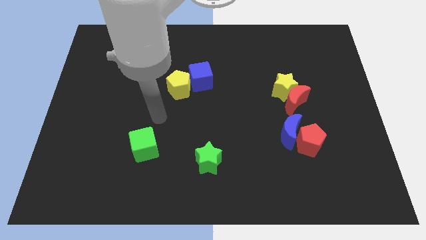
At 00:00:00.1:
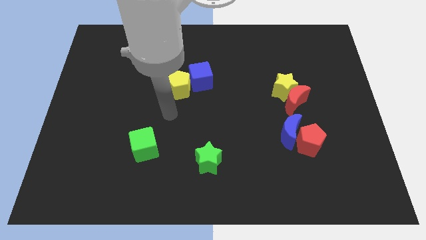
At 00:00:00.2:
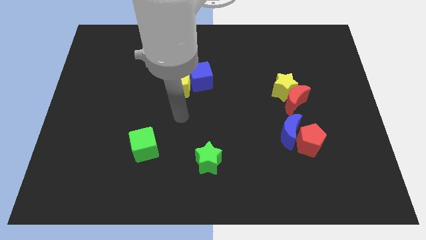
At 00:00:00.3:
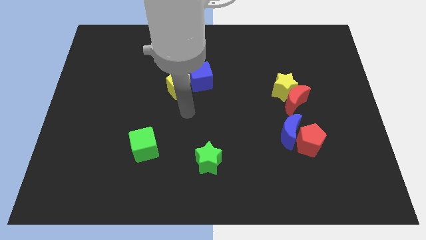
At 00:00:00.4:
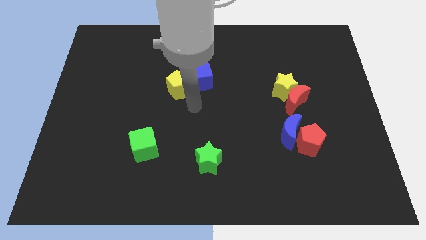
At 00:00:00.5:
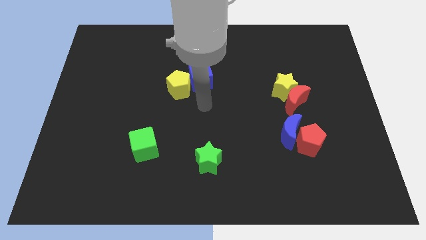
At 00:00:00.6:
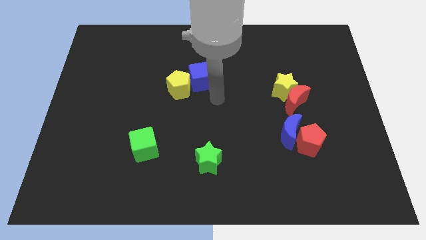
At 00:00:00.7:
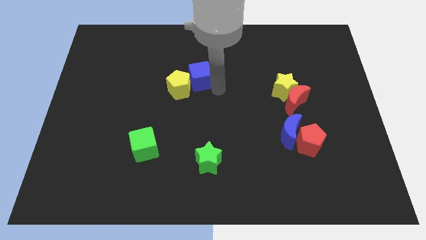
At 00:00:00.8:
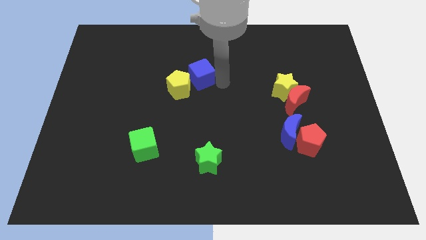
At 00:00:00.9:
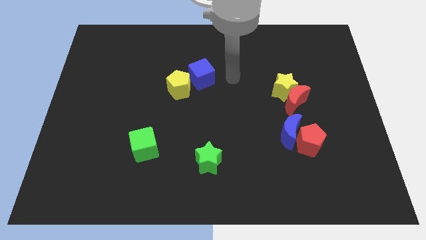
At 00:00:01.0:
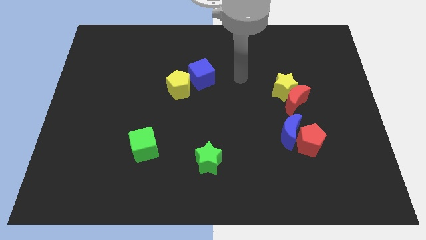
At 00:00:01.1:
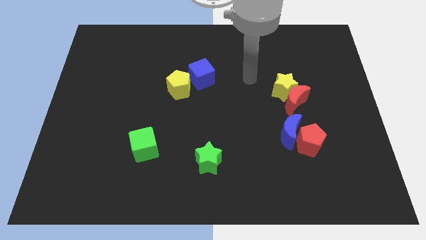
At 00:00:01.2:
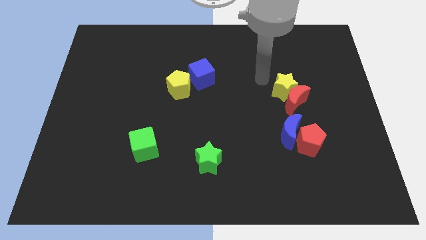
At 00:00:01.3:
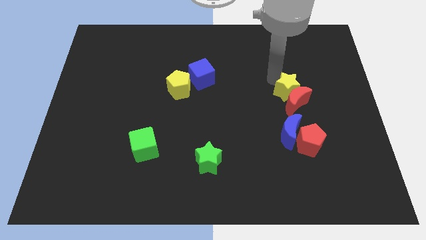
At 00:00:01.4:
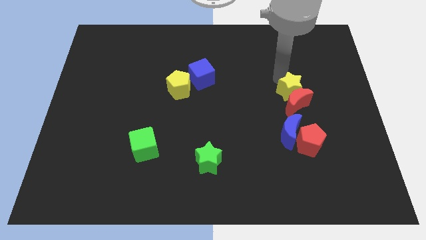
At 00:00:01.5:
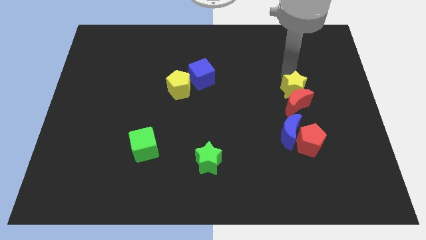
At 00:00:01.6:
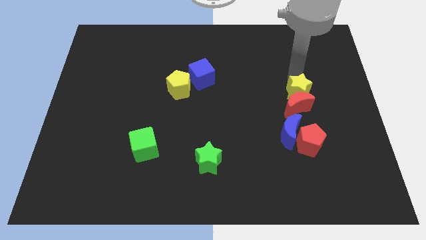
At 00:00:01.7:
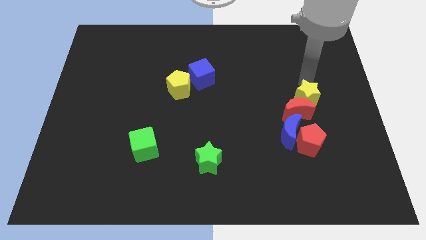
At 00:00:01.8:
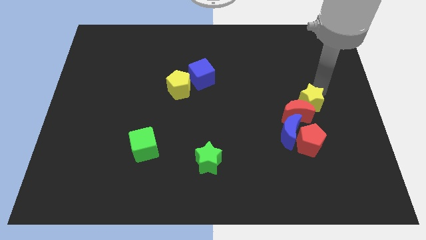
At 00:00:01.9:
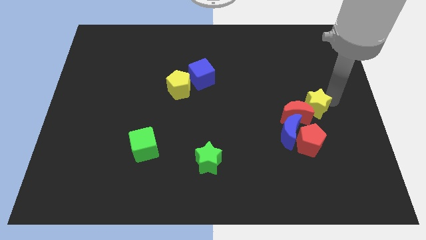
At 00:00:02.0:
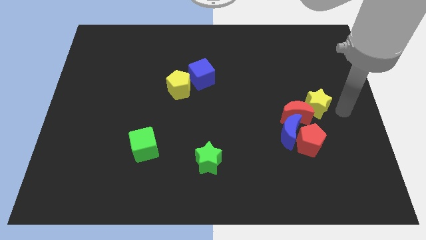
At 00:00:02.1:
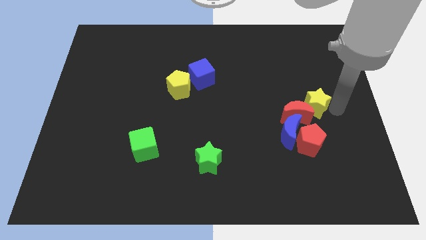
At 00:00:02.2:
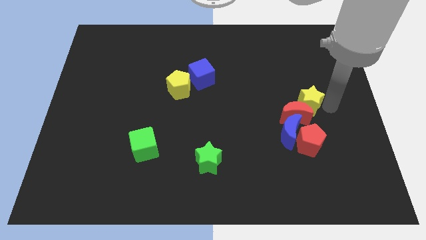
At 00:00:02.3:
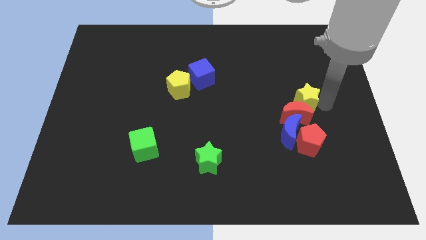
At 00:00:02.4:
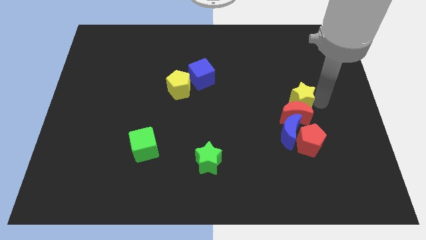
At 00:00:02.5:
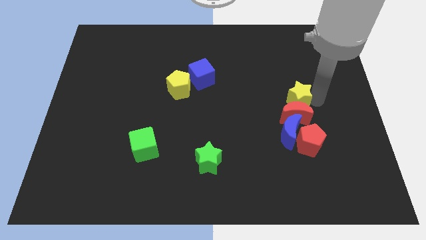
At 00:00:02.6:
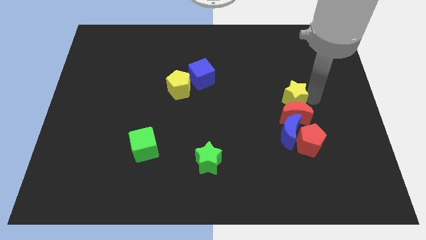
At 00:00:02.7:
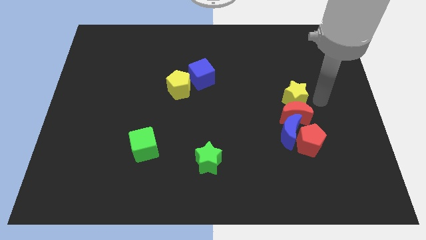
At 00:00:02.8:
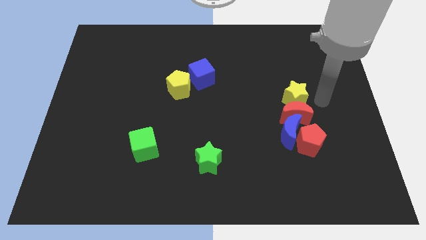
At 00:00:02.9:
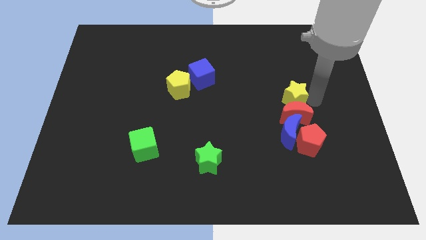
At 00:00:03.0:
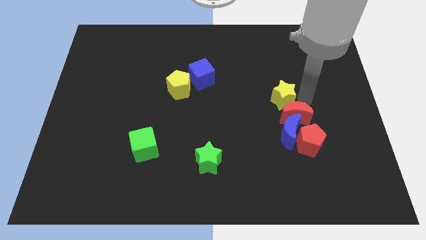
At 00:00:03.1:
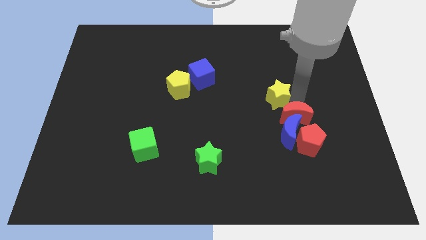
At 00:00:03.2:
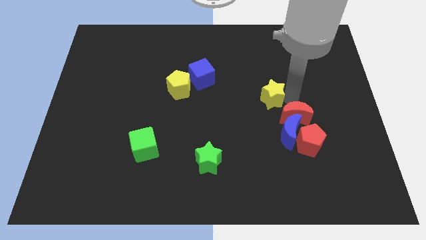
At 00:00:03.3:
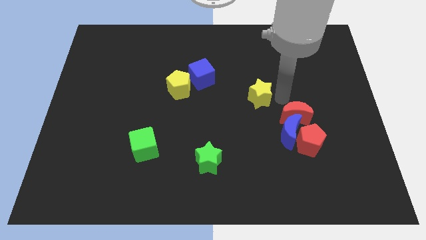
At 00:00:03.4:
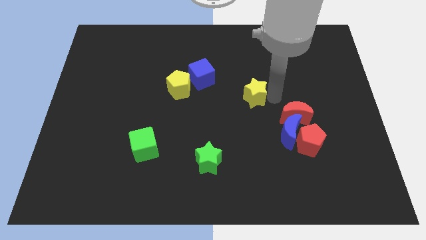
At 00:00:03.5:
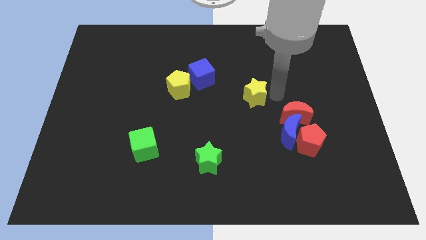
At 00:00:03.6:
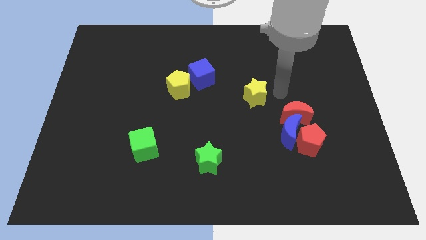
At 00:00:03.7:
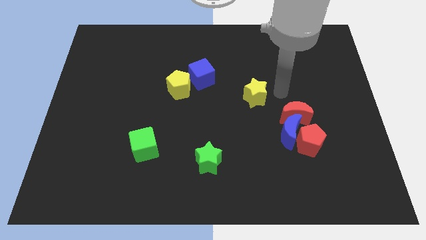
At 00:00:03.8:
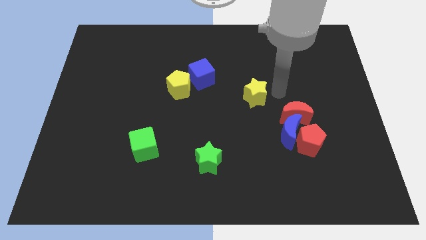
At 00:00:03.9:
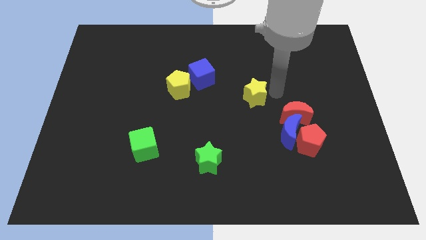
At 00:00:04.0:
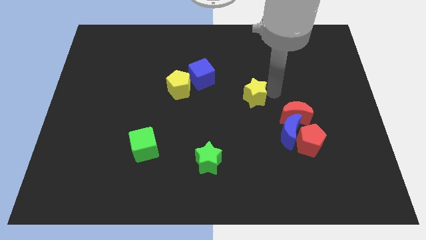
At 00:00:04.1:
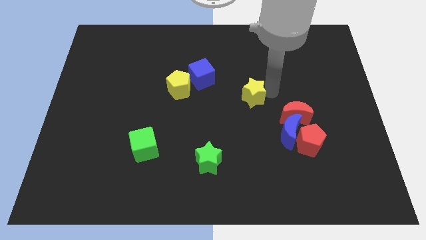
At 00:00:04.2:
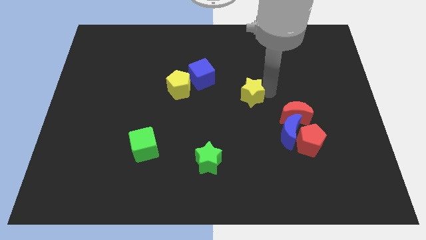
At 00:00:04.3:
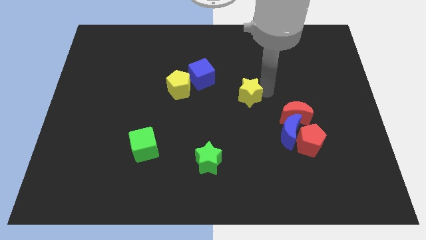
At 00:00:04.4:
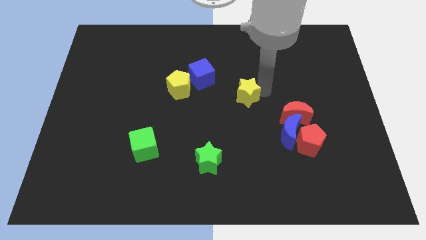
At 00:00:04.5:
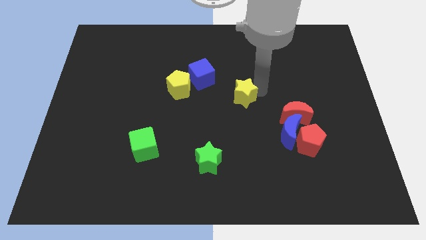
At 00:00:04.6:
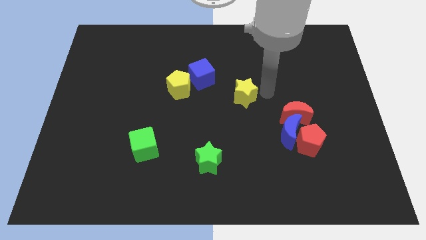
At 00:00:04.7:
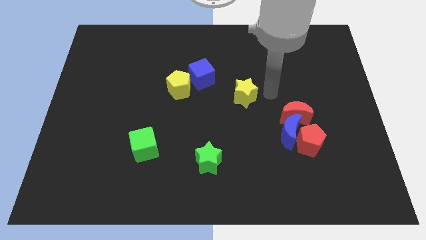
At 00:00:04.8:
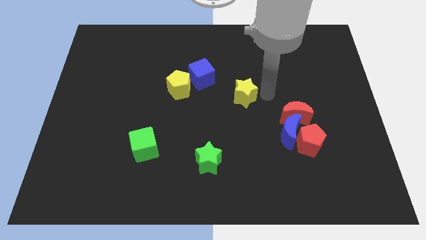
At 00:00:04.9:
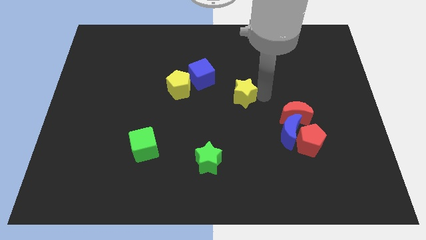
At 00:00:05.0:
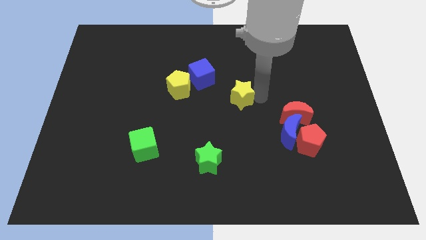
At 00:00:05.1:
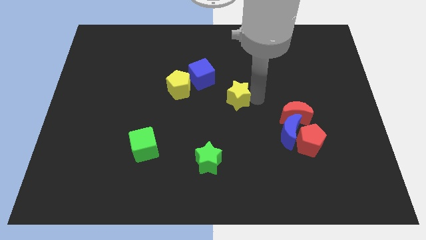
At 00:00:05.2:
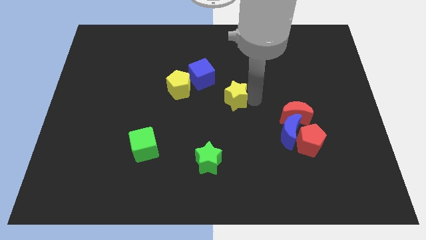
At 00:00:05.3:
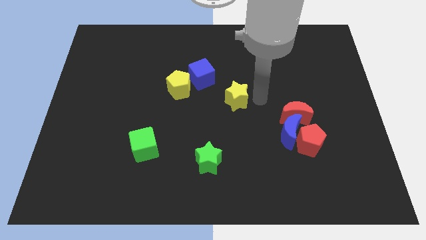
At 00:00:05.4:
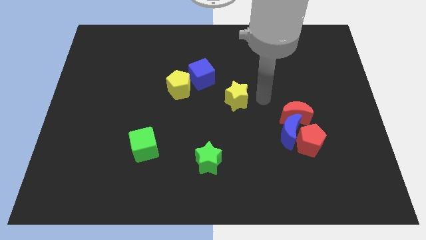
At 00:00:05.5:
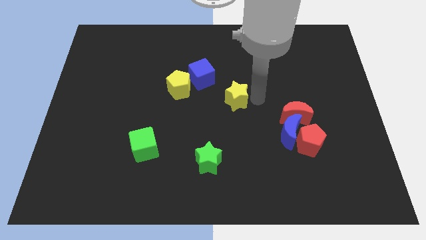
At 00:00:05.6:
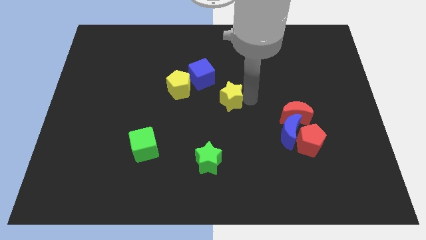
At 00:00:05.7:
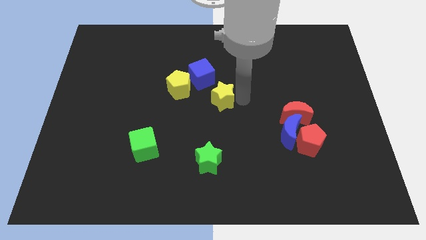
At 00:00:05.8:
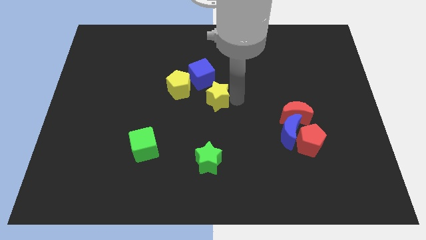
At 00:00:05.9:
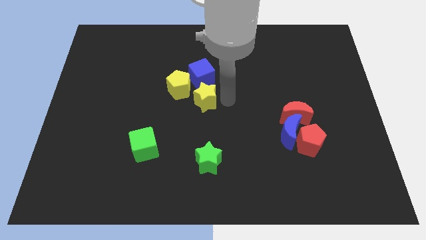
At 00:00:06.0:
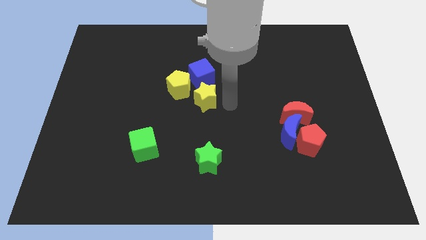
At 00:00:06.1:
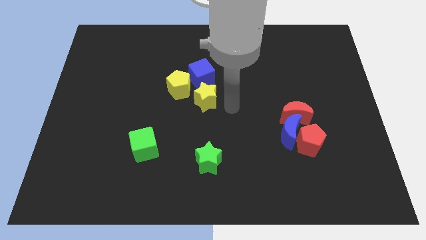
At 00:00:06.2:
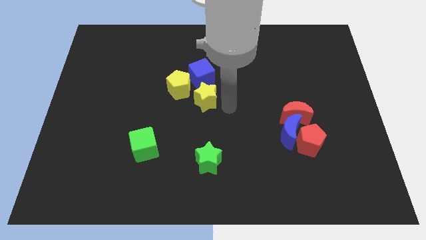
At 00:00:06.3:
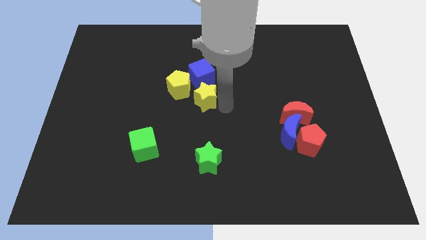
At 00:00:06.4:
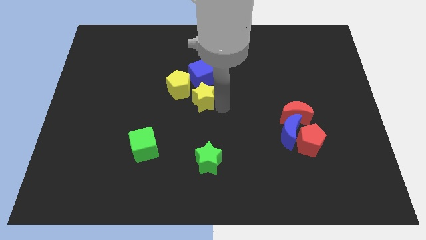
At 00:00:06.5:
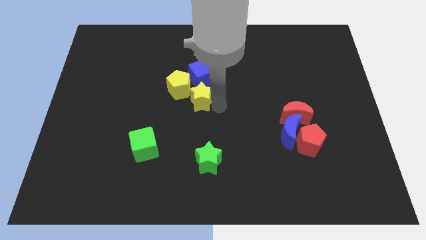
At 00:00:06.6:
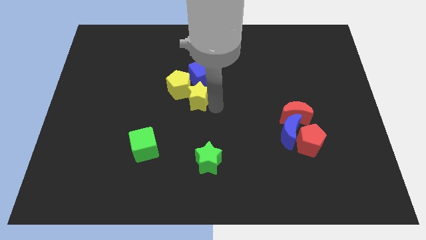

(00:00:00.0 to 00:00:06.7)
put the yellow star to the bottom left side of the blue cube

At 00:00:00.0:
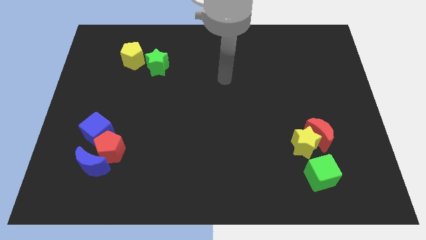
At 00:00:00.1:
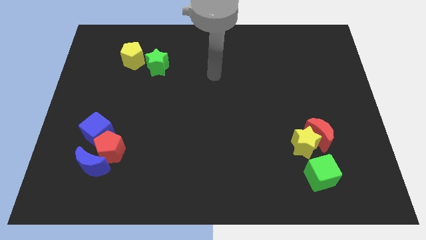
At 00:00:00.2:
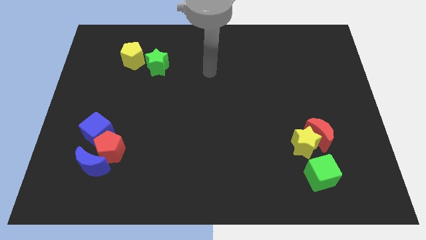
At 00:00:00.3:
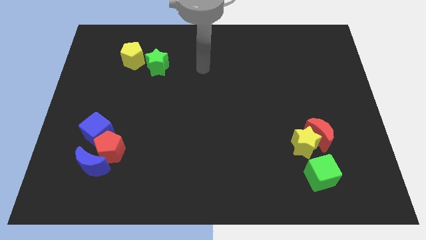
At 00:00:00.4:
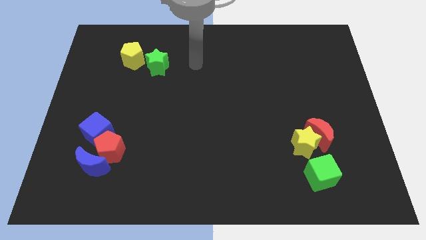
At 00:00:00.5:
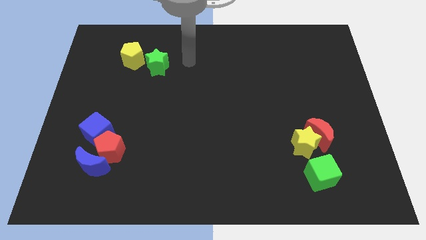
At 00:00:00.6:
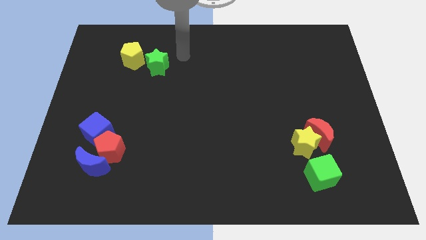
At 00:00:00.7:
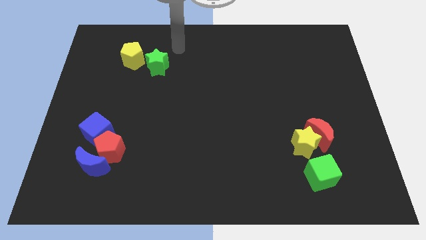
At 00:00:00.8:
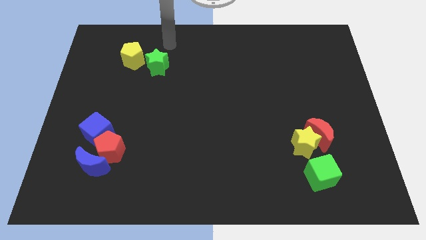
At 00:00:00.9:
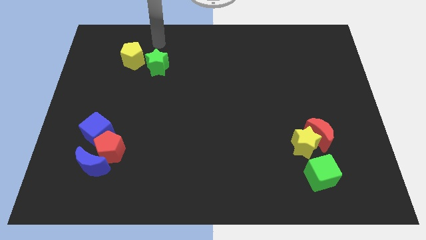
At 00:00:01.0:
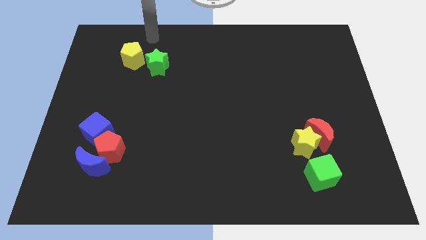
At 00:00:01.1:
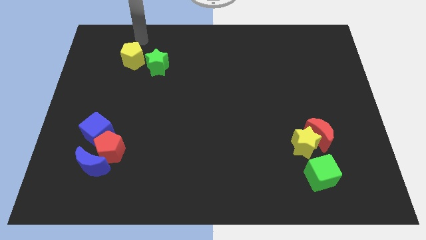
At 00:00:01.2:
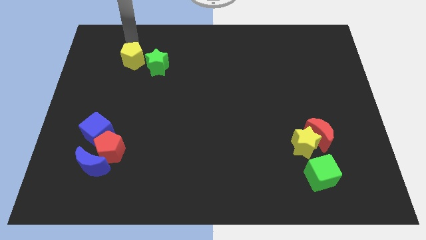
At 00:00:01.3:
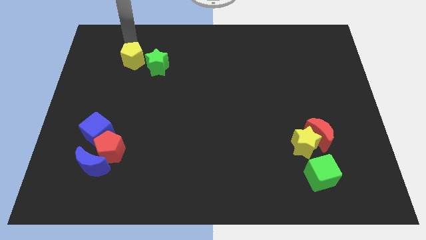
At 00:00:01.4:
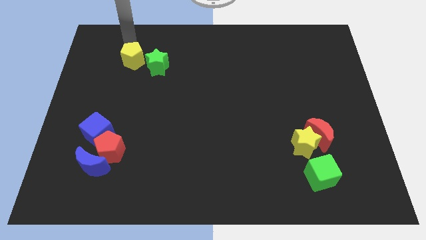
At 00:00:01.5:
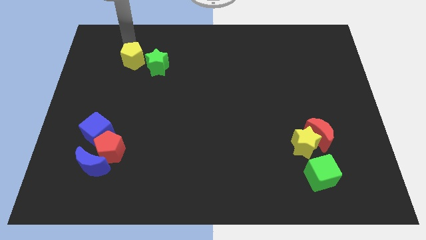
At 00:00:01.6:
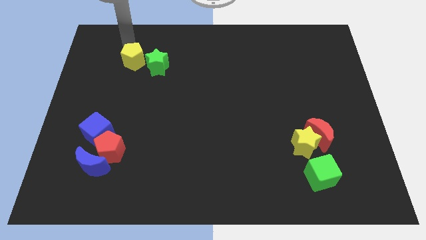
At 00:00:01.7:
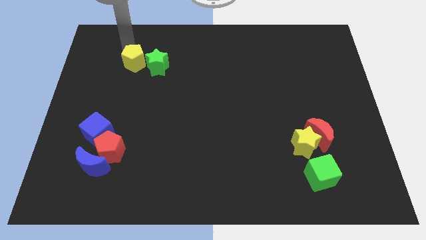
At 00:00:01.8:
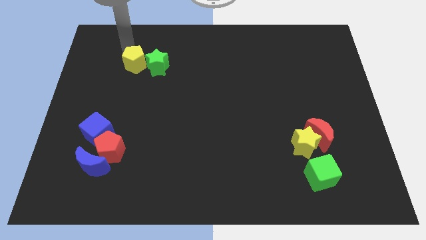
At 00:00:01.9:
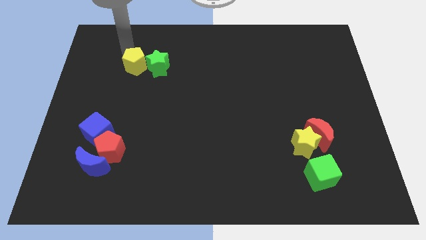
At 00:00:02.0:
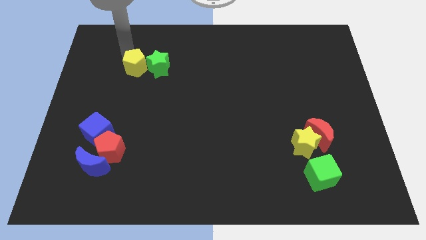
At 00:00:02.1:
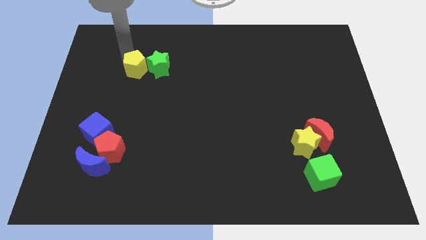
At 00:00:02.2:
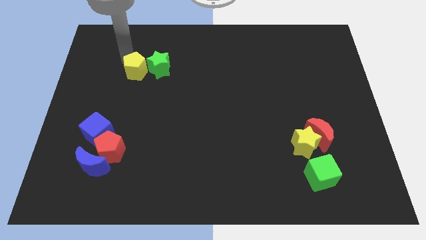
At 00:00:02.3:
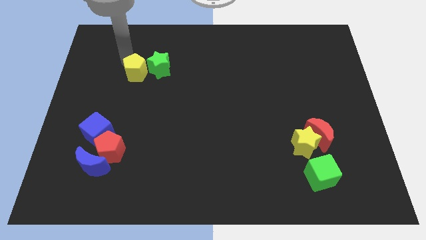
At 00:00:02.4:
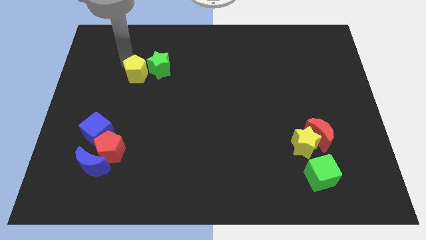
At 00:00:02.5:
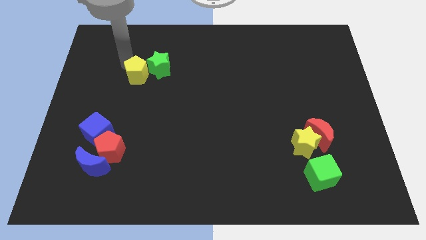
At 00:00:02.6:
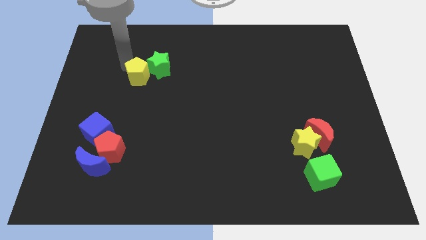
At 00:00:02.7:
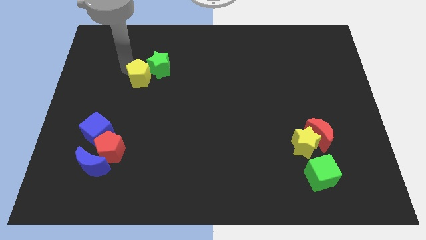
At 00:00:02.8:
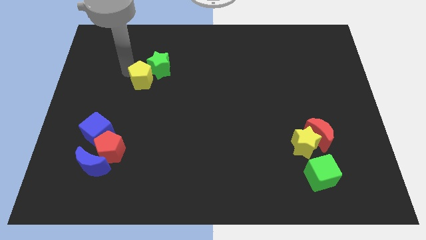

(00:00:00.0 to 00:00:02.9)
put the yellow pentagon below the green star
